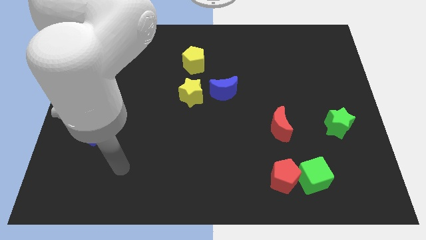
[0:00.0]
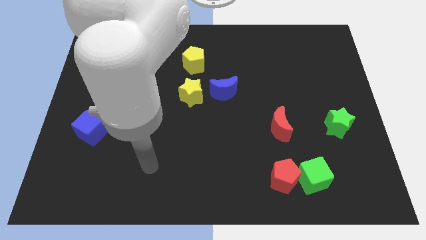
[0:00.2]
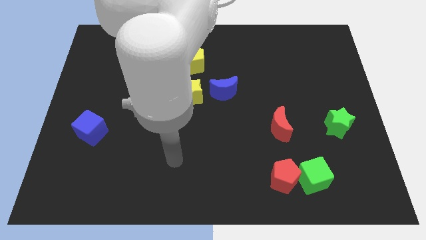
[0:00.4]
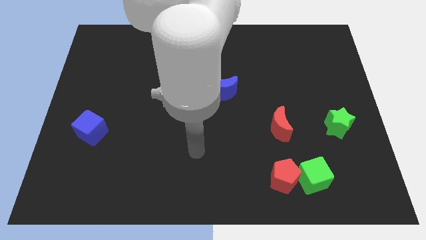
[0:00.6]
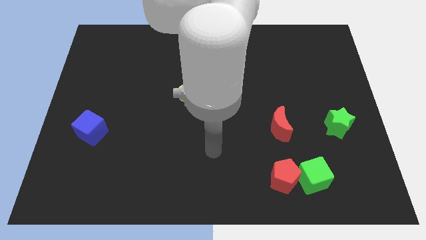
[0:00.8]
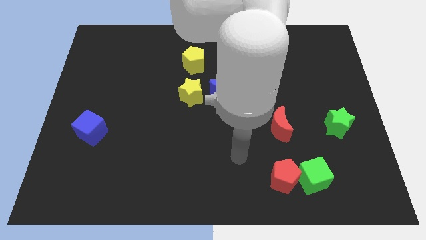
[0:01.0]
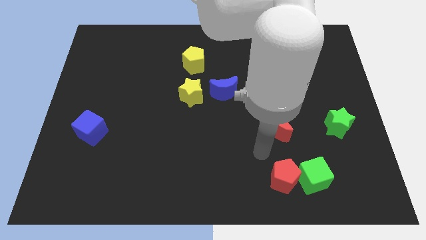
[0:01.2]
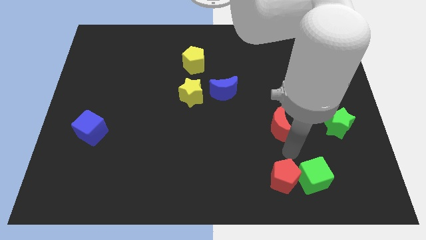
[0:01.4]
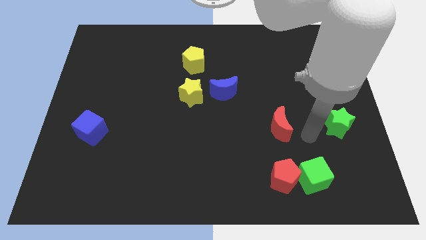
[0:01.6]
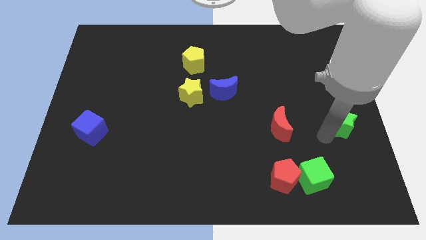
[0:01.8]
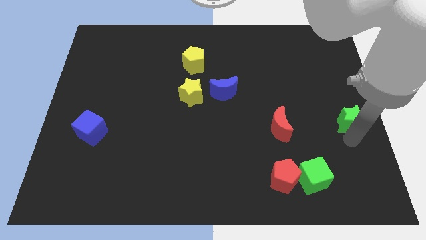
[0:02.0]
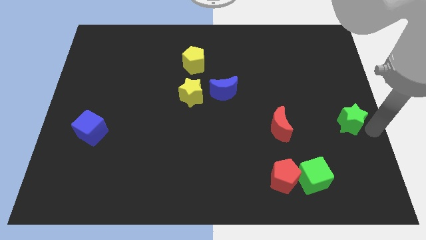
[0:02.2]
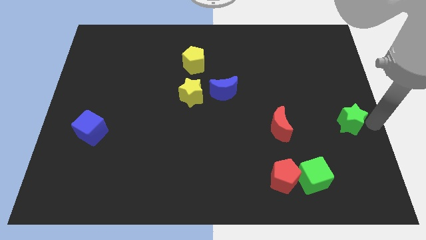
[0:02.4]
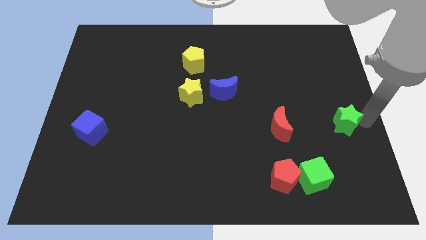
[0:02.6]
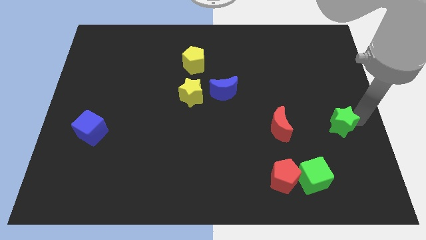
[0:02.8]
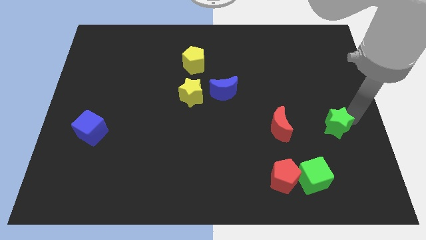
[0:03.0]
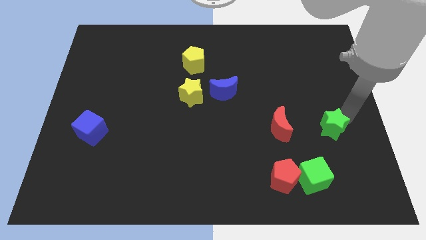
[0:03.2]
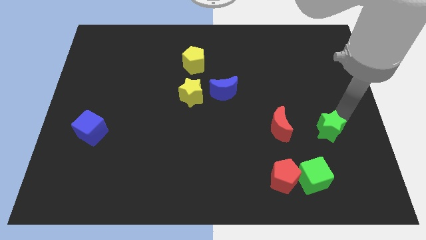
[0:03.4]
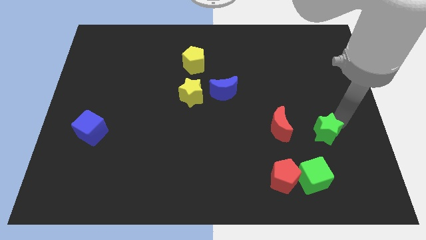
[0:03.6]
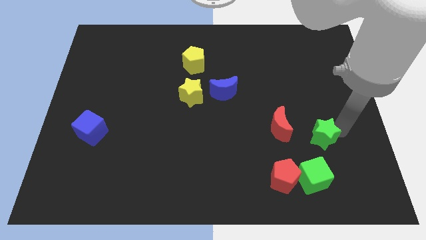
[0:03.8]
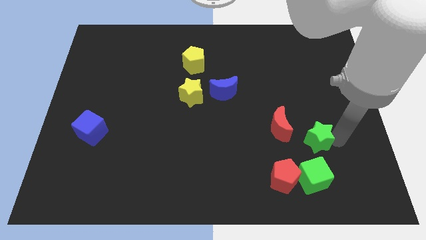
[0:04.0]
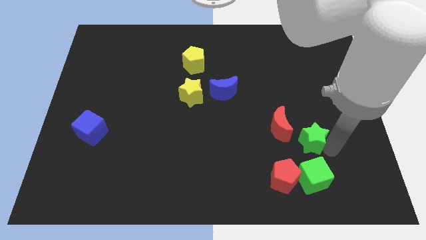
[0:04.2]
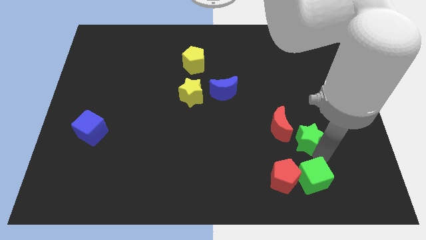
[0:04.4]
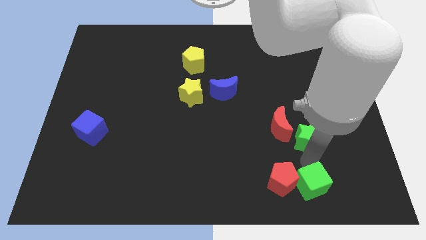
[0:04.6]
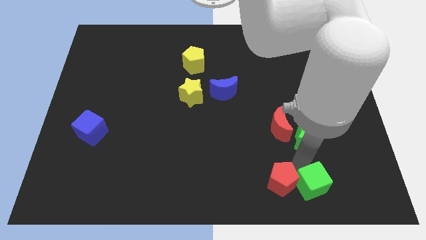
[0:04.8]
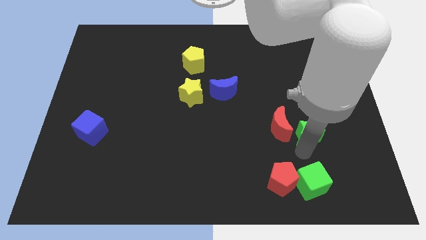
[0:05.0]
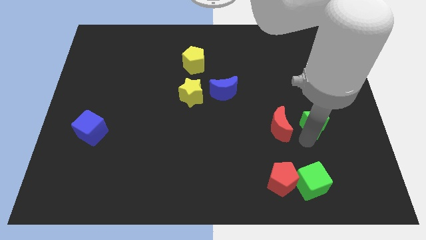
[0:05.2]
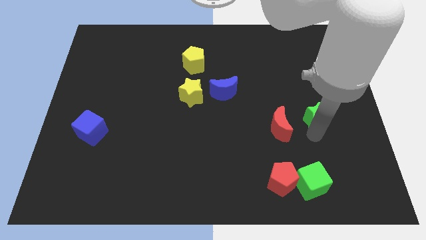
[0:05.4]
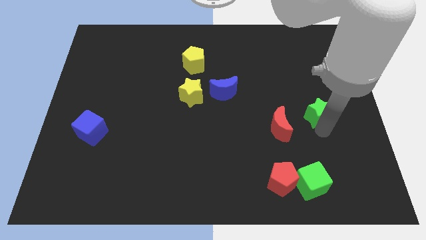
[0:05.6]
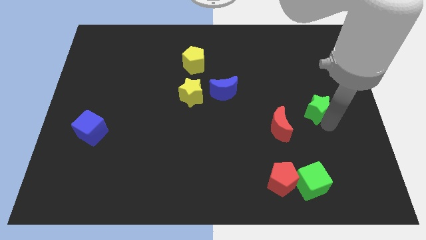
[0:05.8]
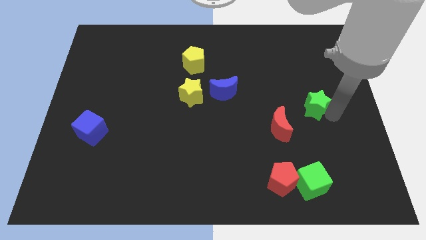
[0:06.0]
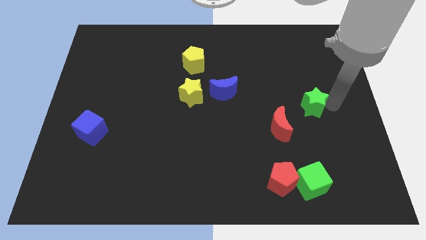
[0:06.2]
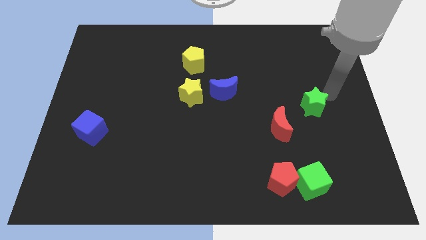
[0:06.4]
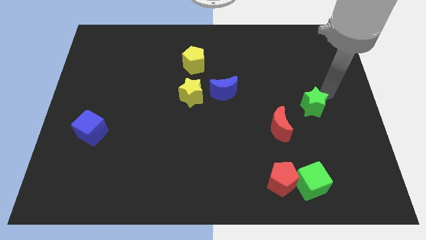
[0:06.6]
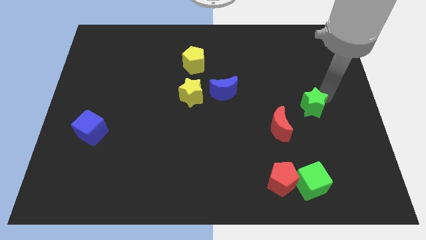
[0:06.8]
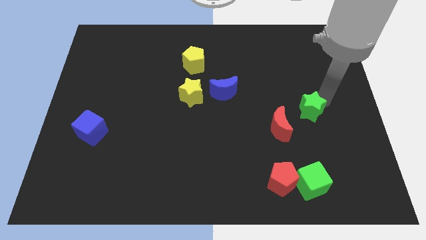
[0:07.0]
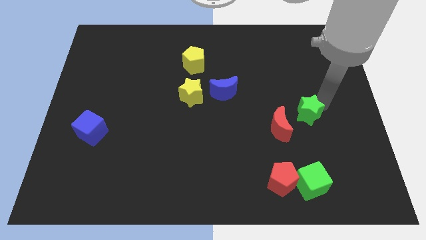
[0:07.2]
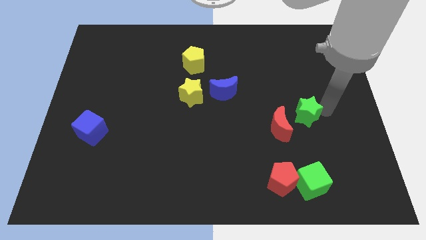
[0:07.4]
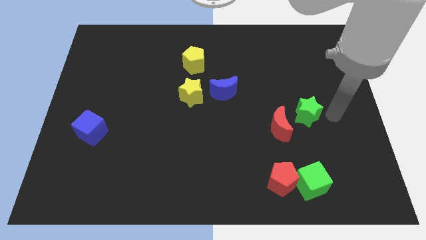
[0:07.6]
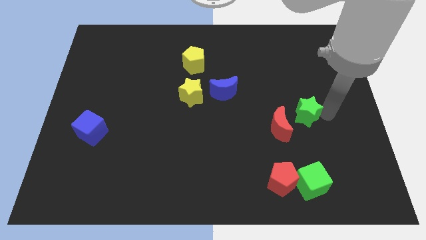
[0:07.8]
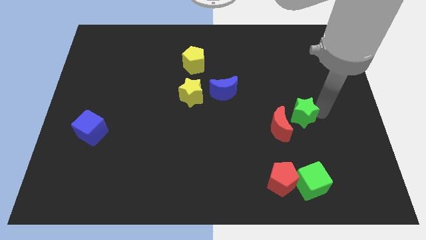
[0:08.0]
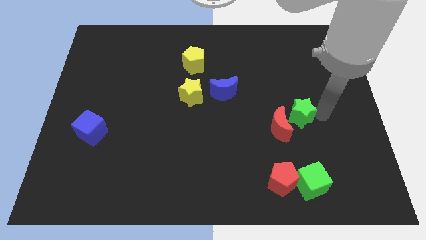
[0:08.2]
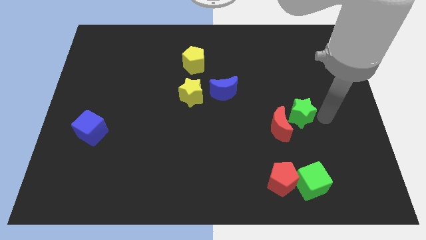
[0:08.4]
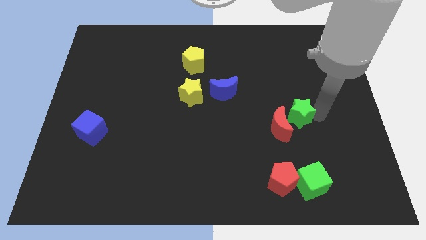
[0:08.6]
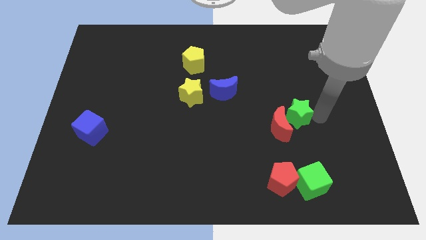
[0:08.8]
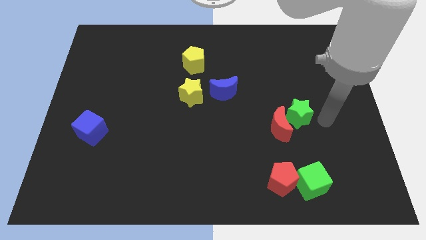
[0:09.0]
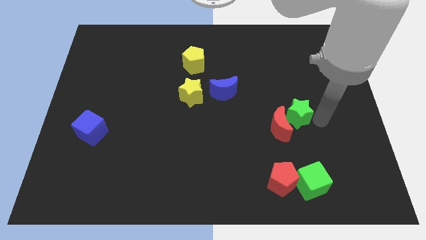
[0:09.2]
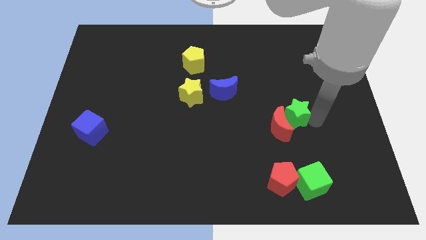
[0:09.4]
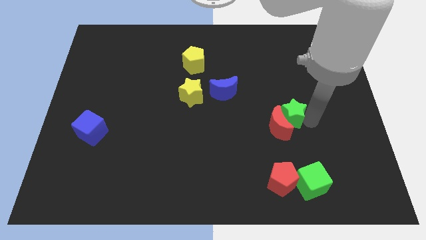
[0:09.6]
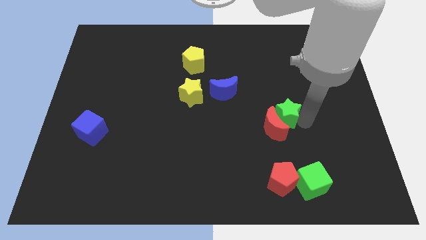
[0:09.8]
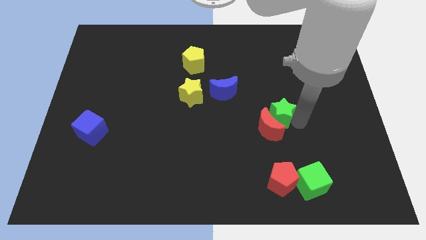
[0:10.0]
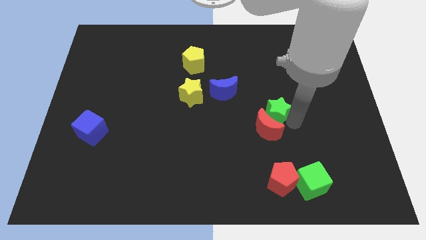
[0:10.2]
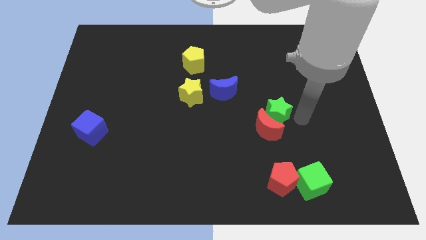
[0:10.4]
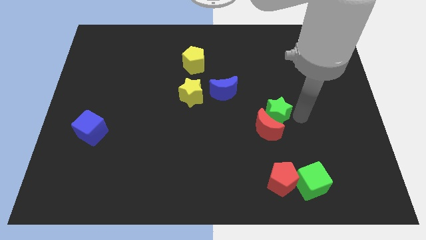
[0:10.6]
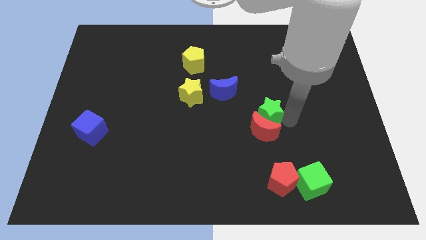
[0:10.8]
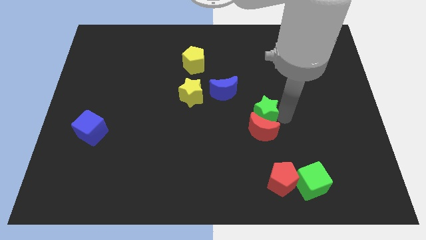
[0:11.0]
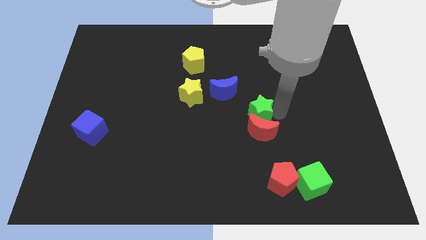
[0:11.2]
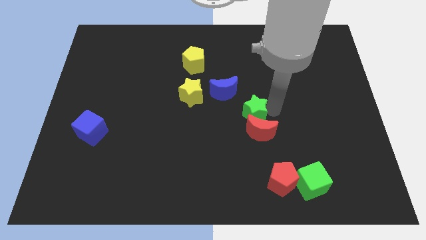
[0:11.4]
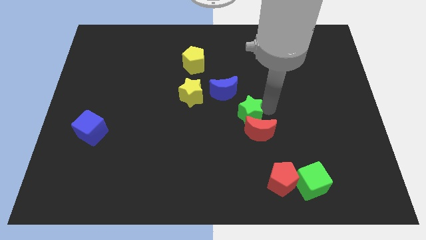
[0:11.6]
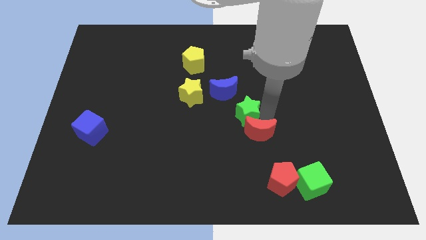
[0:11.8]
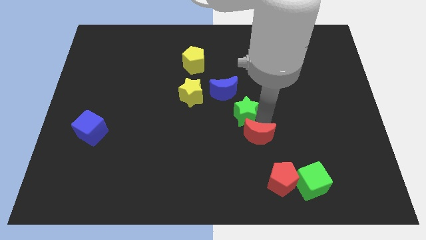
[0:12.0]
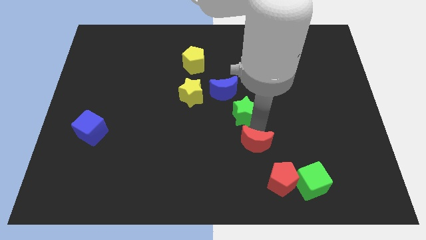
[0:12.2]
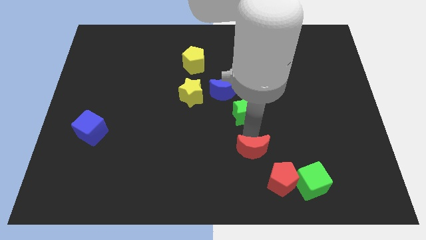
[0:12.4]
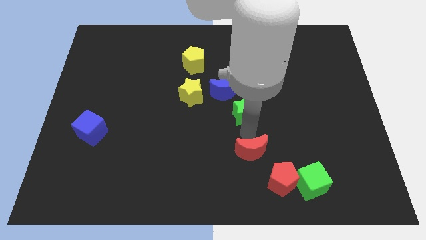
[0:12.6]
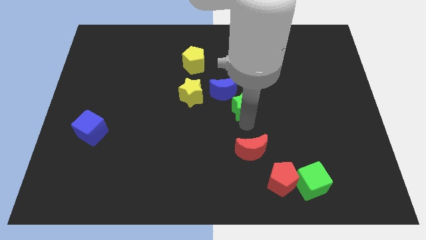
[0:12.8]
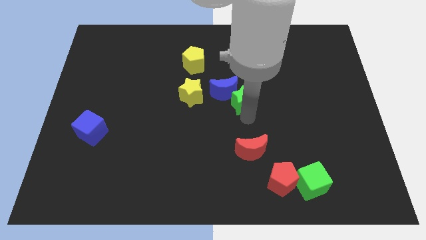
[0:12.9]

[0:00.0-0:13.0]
move the green star to the blue moon
